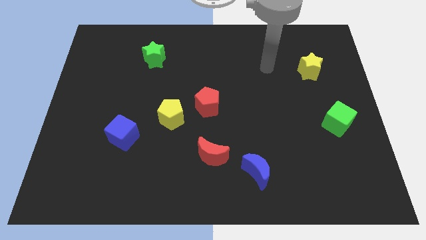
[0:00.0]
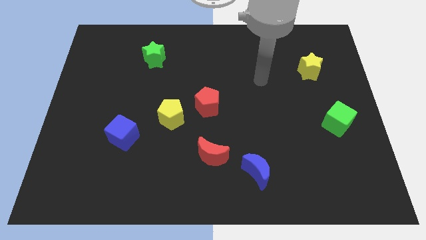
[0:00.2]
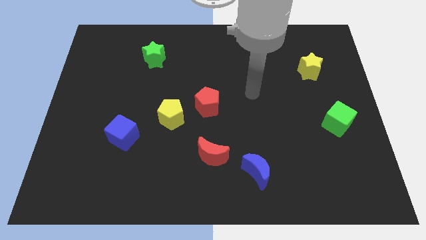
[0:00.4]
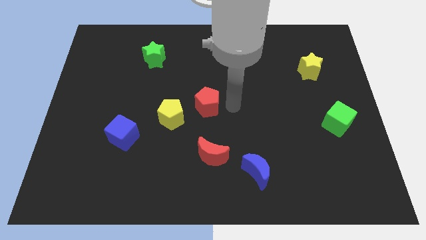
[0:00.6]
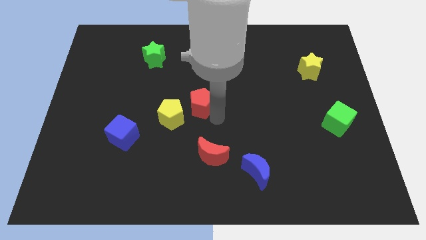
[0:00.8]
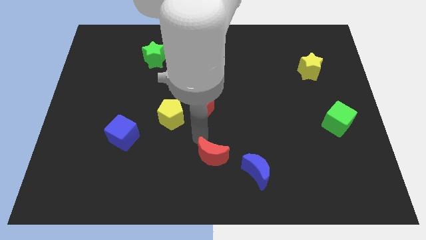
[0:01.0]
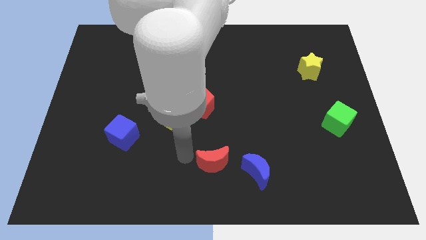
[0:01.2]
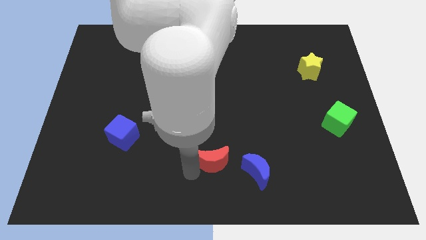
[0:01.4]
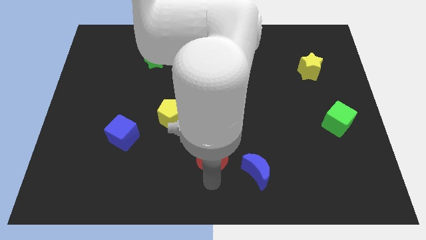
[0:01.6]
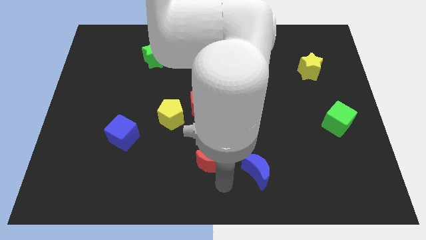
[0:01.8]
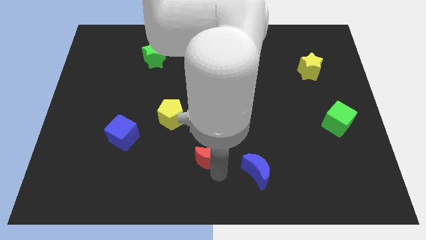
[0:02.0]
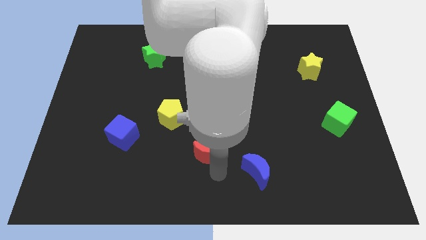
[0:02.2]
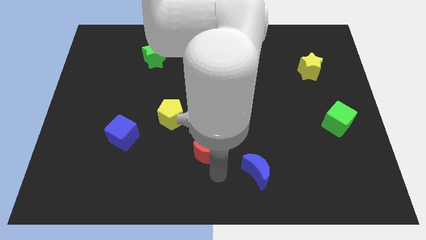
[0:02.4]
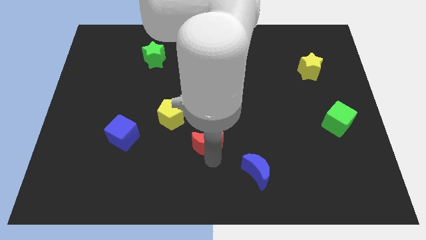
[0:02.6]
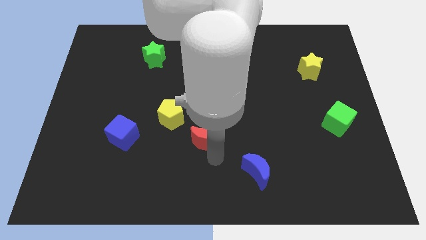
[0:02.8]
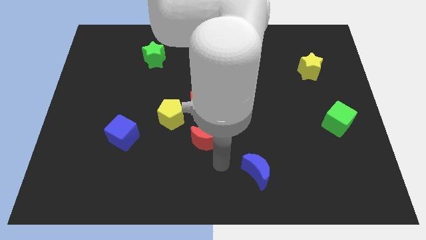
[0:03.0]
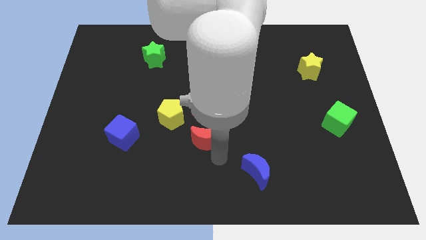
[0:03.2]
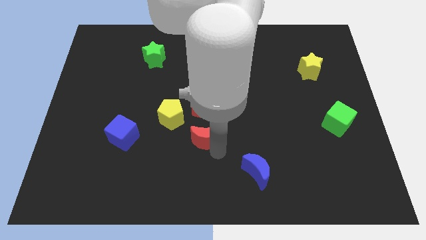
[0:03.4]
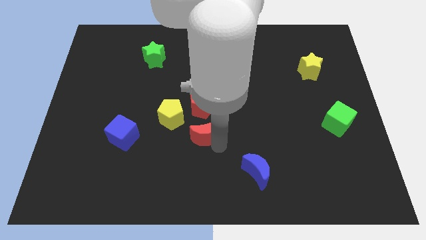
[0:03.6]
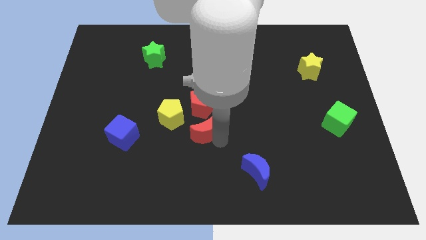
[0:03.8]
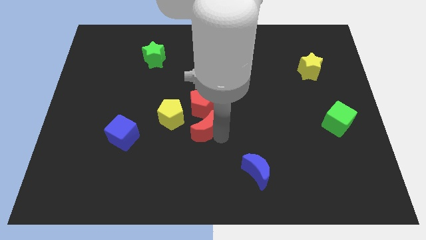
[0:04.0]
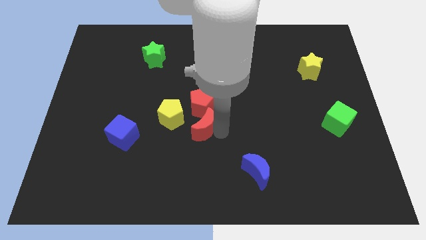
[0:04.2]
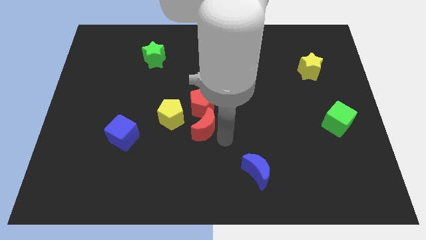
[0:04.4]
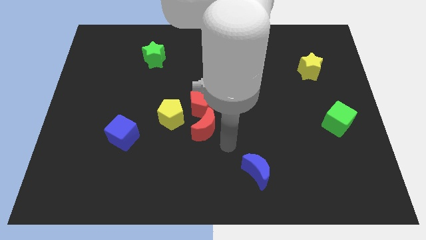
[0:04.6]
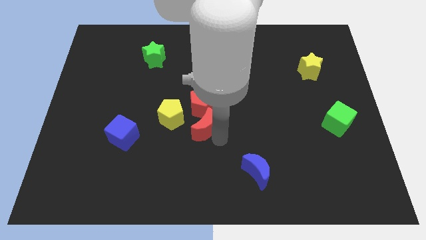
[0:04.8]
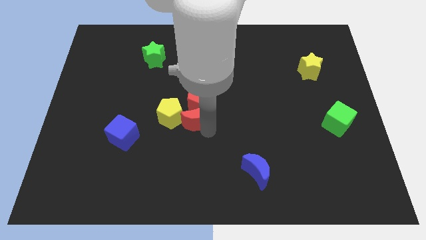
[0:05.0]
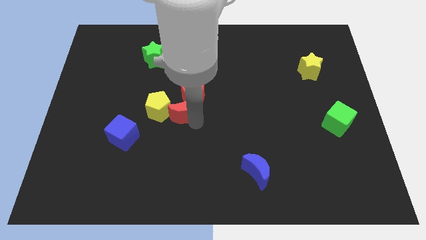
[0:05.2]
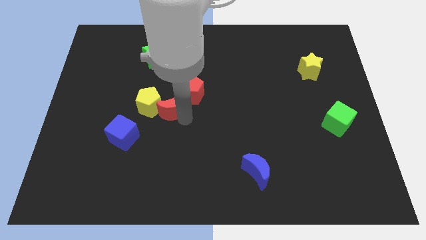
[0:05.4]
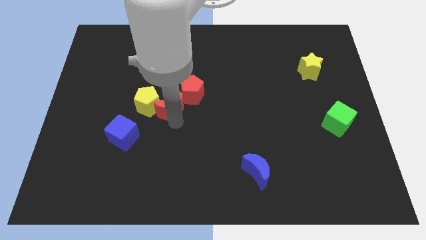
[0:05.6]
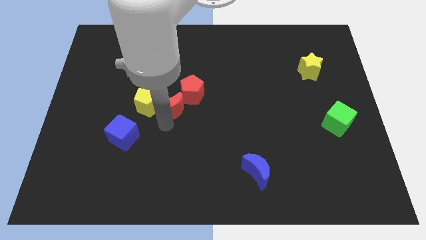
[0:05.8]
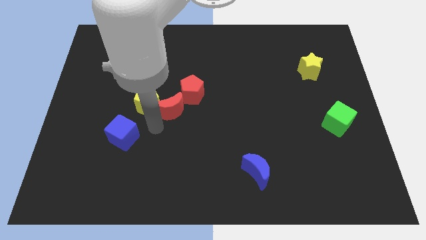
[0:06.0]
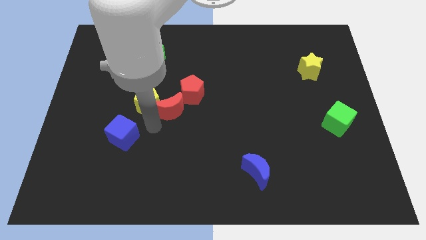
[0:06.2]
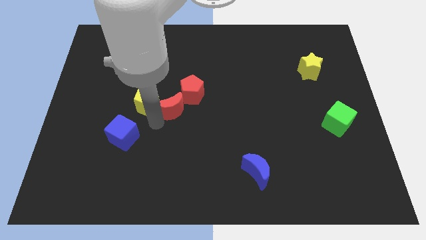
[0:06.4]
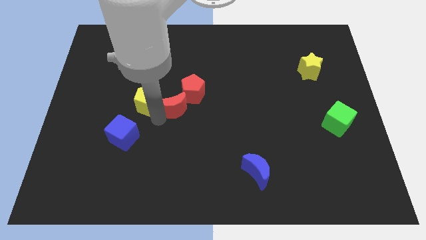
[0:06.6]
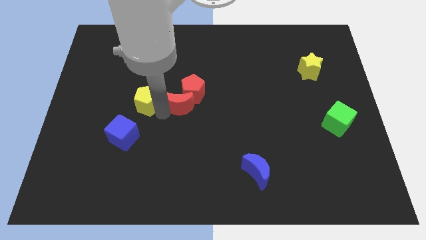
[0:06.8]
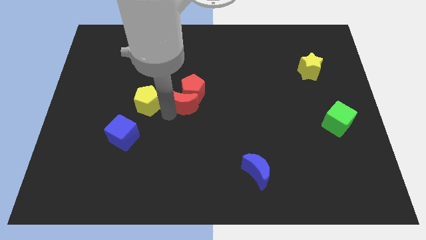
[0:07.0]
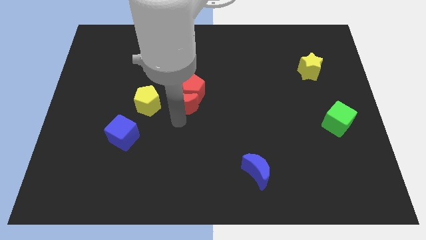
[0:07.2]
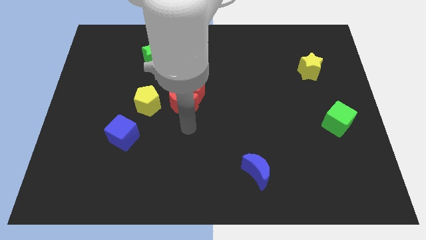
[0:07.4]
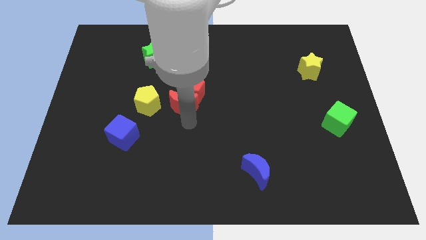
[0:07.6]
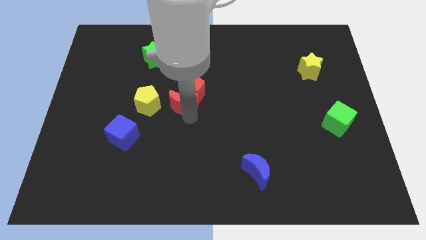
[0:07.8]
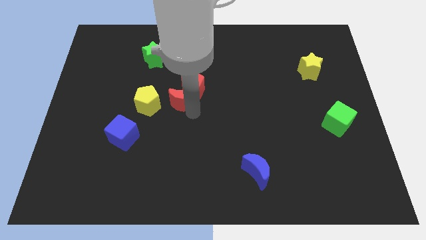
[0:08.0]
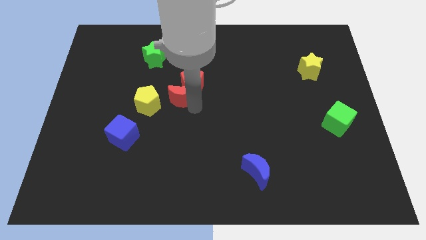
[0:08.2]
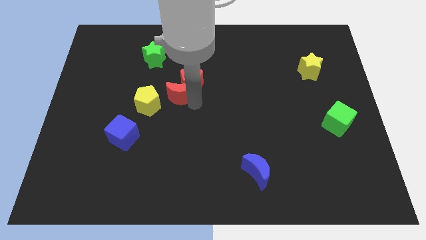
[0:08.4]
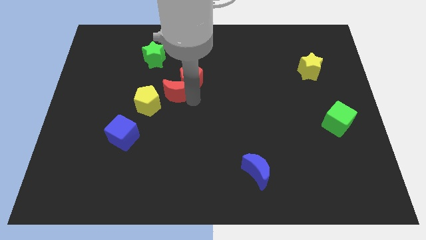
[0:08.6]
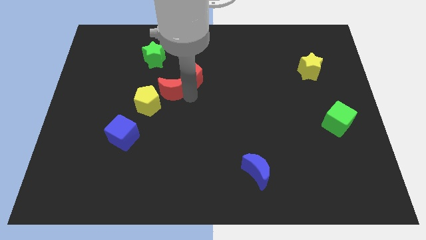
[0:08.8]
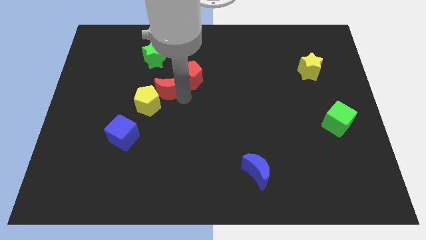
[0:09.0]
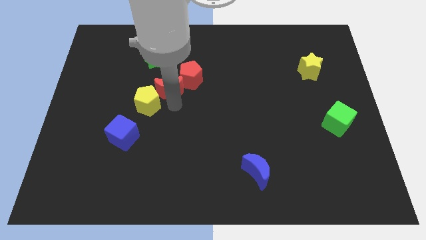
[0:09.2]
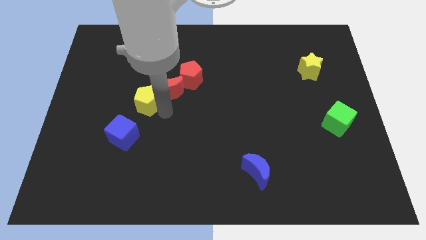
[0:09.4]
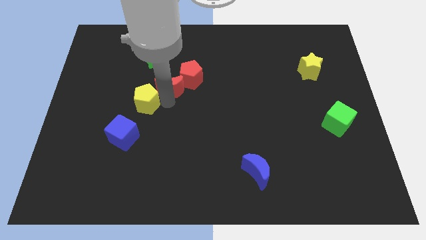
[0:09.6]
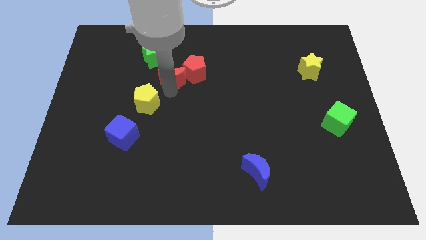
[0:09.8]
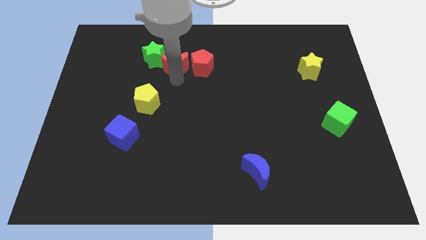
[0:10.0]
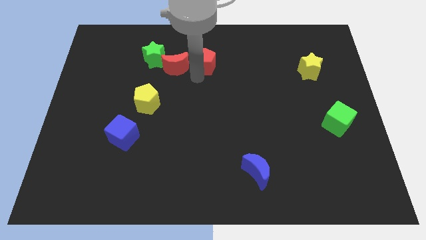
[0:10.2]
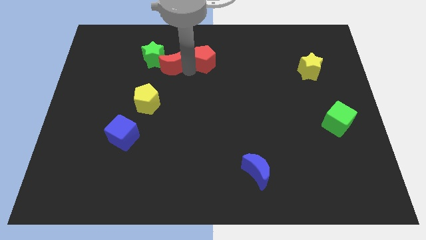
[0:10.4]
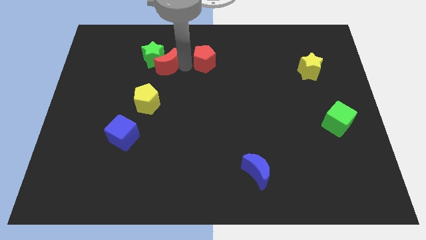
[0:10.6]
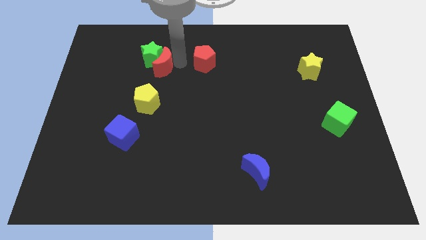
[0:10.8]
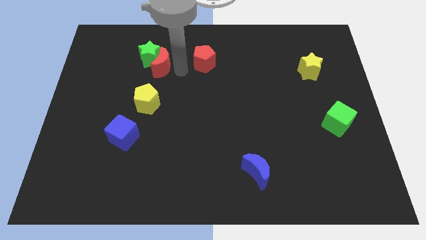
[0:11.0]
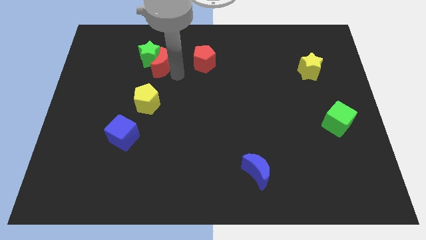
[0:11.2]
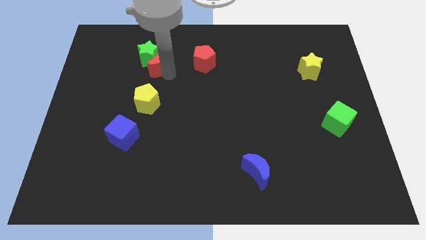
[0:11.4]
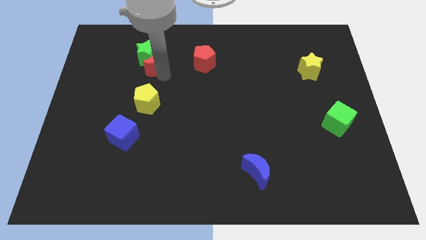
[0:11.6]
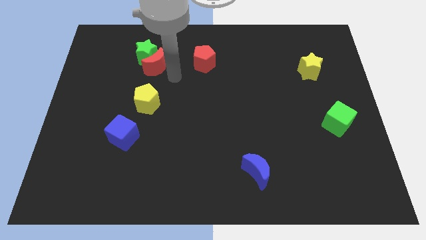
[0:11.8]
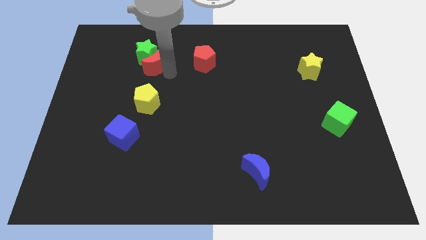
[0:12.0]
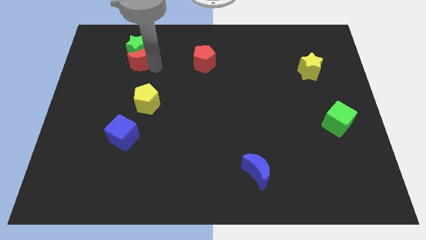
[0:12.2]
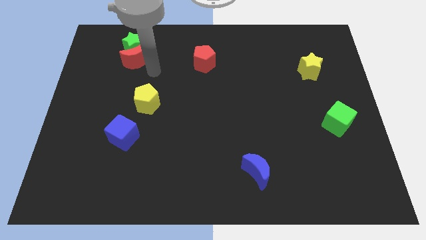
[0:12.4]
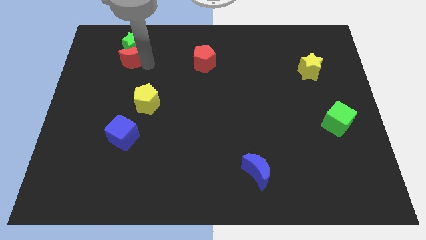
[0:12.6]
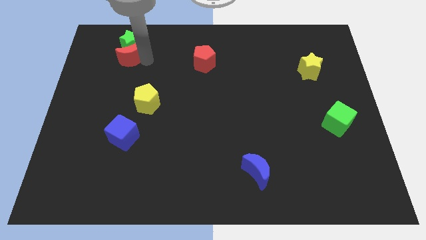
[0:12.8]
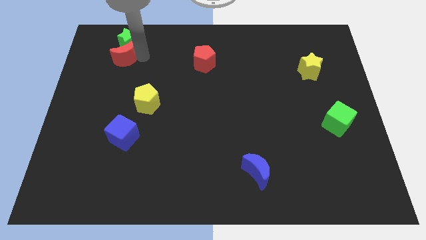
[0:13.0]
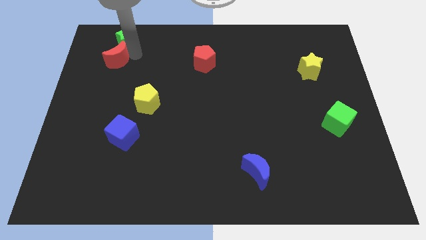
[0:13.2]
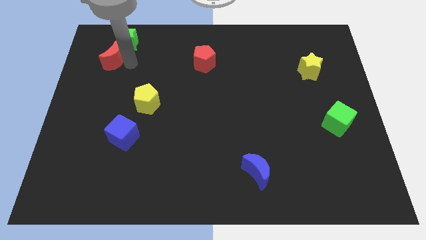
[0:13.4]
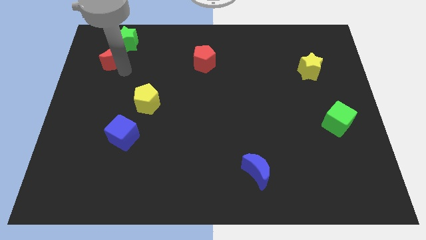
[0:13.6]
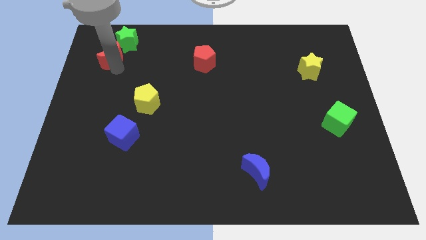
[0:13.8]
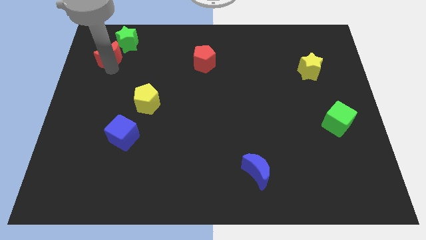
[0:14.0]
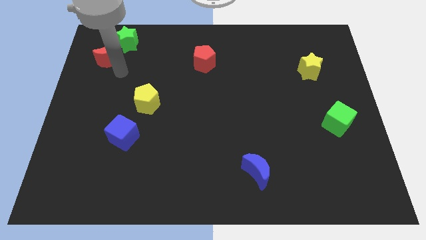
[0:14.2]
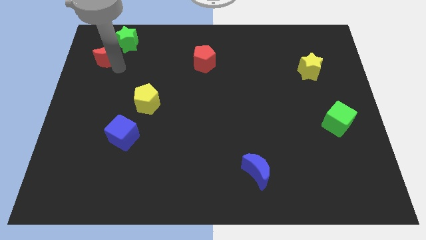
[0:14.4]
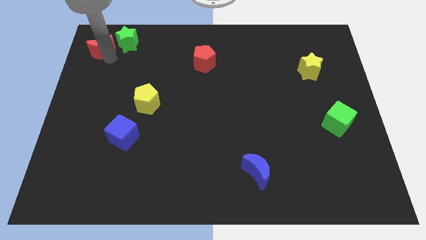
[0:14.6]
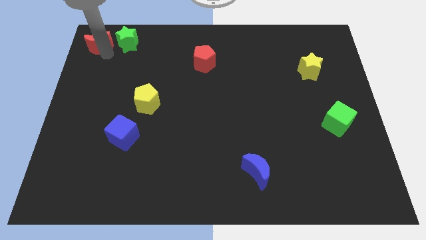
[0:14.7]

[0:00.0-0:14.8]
slide the red moon to the top left corner
